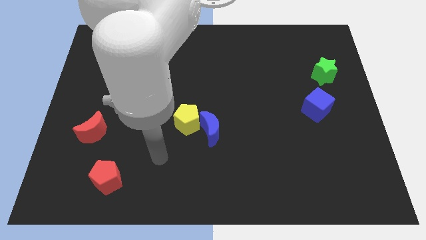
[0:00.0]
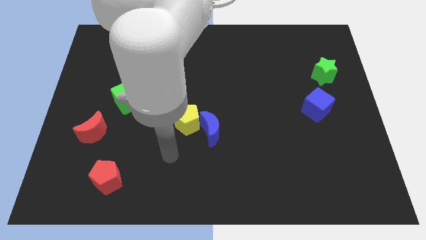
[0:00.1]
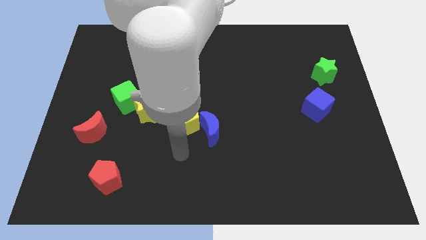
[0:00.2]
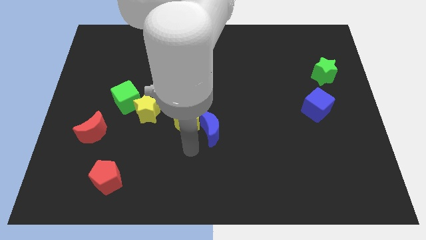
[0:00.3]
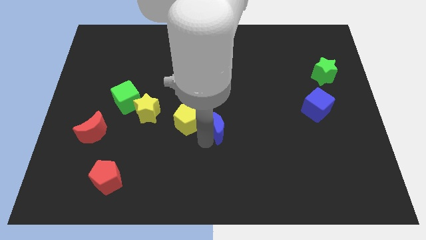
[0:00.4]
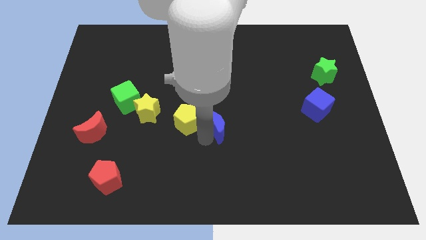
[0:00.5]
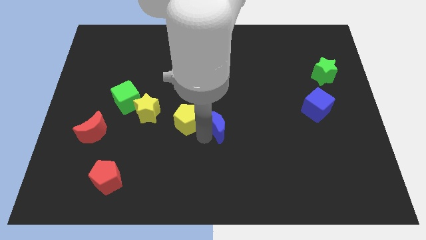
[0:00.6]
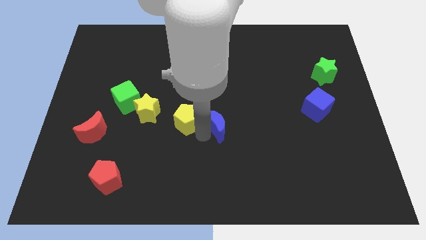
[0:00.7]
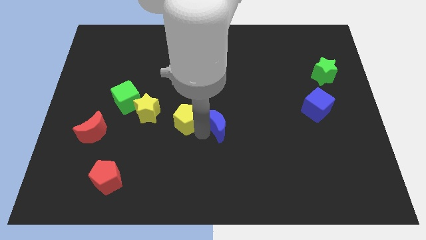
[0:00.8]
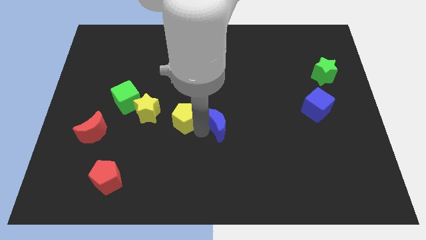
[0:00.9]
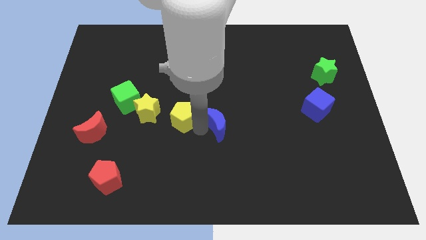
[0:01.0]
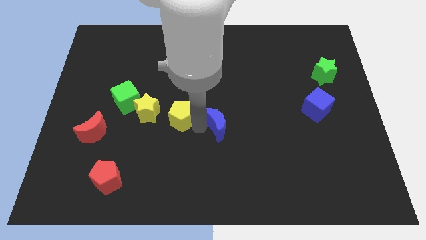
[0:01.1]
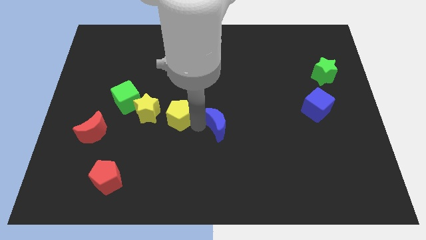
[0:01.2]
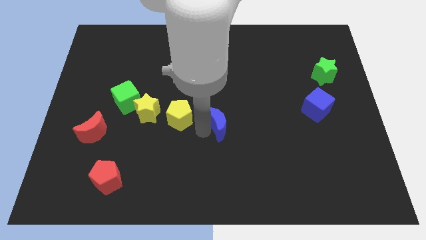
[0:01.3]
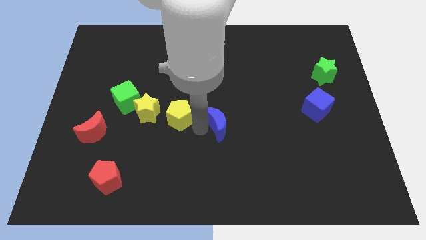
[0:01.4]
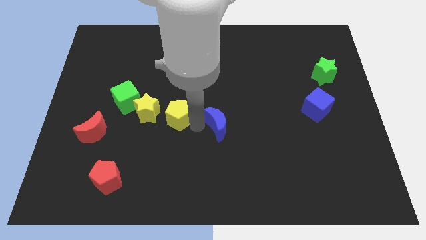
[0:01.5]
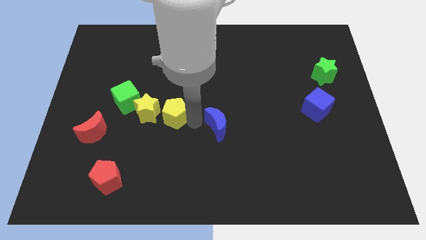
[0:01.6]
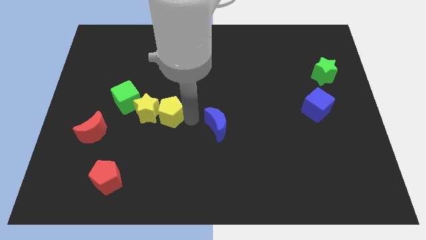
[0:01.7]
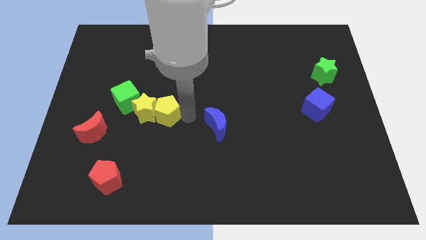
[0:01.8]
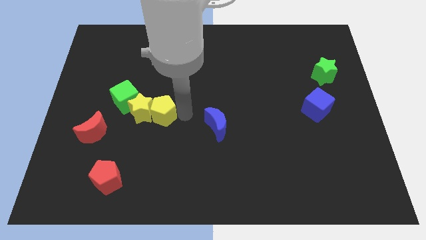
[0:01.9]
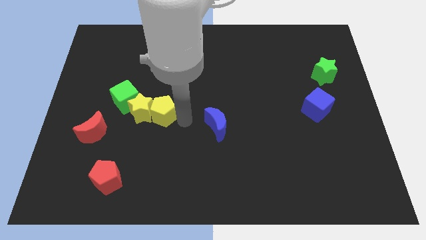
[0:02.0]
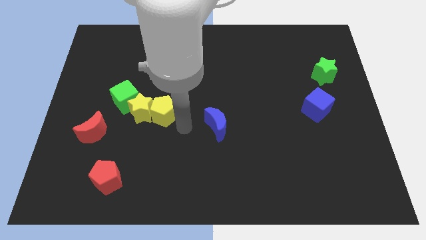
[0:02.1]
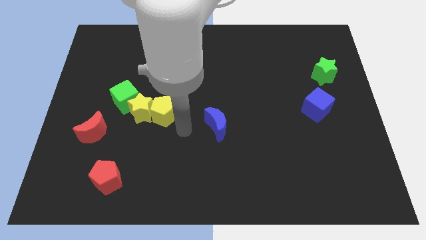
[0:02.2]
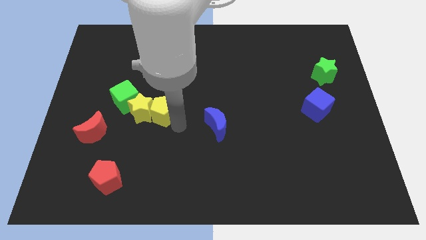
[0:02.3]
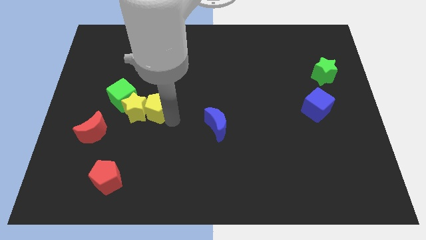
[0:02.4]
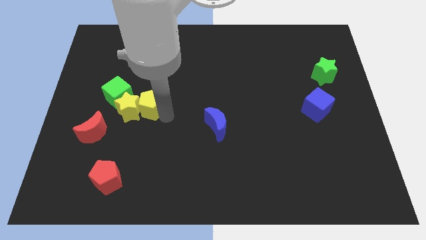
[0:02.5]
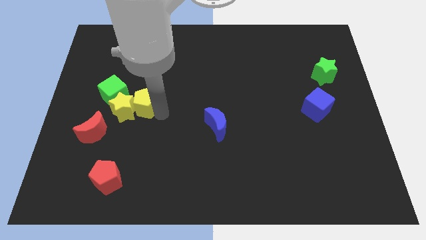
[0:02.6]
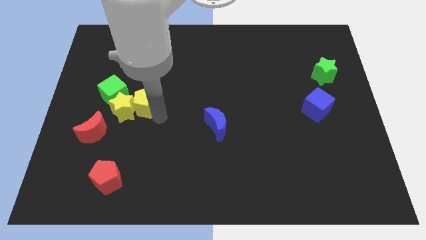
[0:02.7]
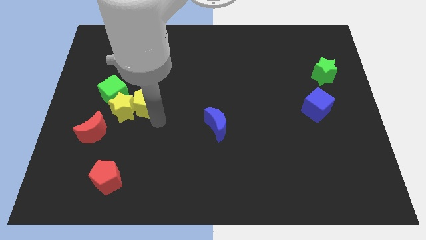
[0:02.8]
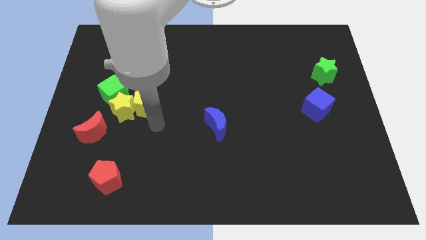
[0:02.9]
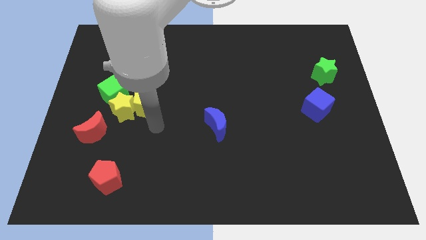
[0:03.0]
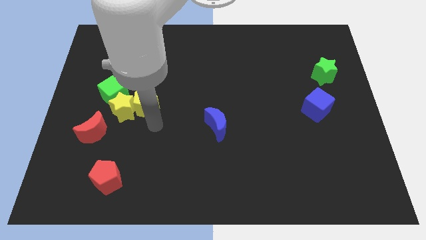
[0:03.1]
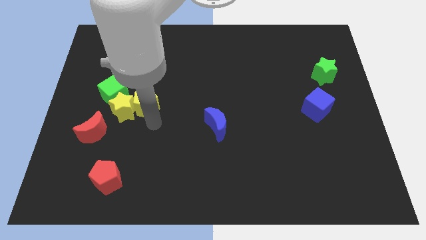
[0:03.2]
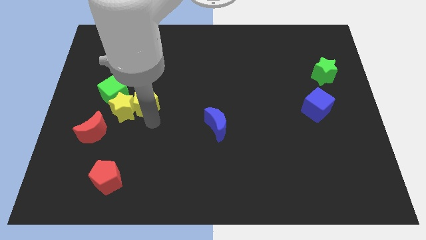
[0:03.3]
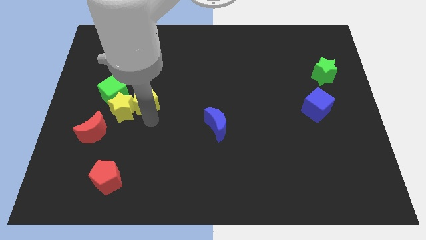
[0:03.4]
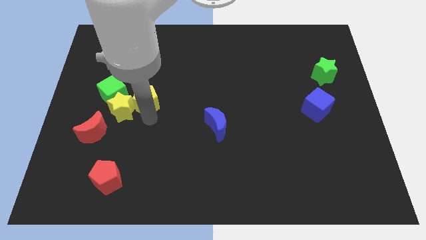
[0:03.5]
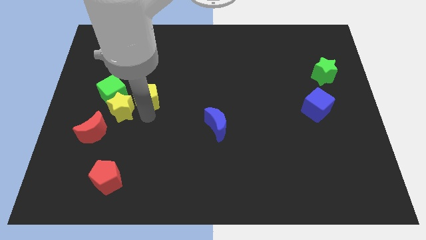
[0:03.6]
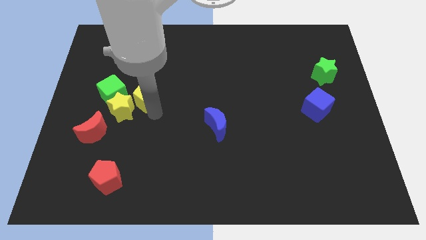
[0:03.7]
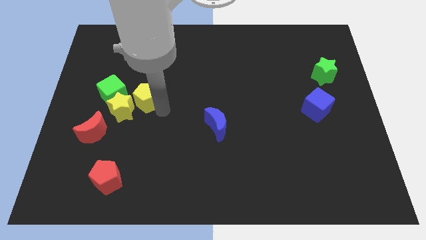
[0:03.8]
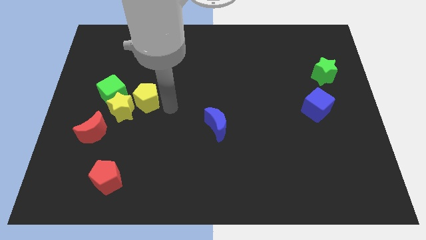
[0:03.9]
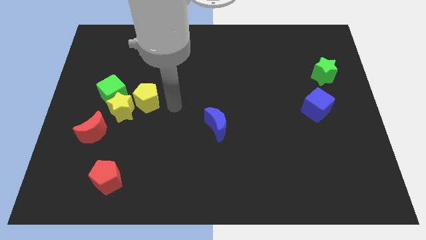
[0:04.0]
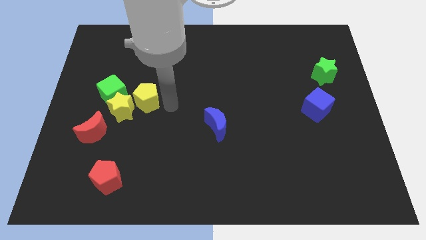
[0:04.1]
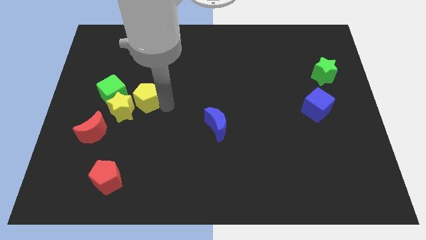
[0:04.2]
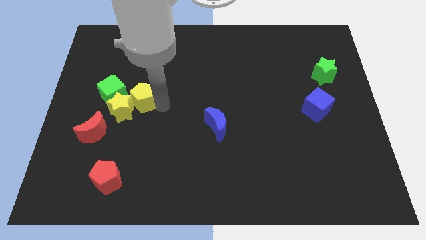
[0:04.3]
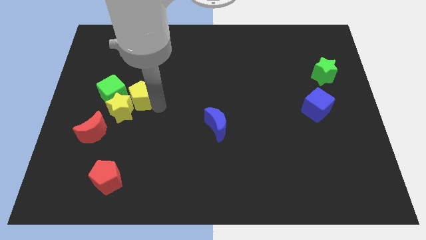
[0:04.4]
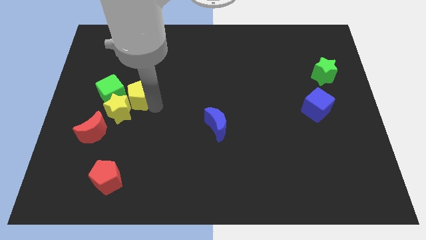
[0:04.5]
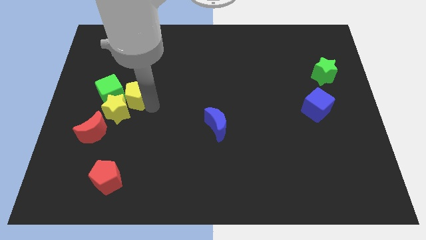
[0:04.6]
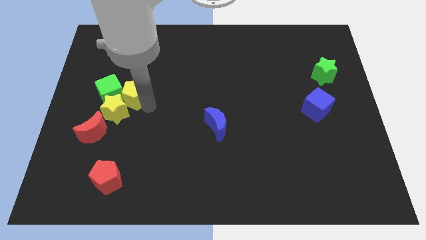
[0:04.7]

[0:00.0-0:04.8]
push the yellow pentagon close to the green cube

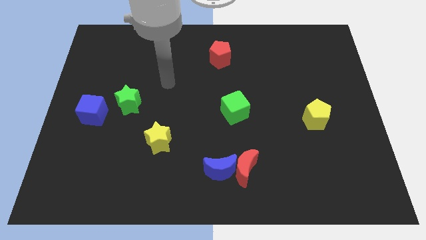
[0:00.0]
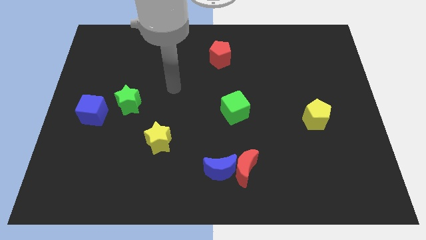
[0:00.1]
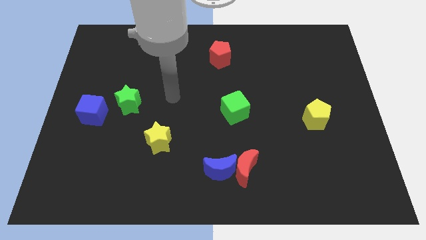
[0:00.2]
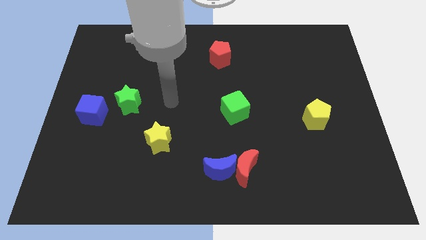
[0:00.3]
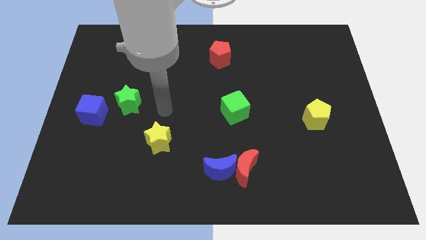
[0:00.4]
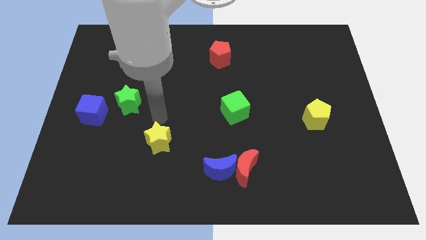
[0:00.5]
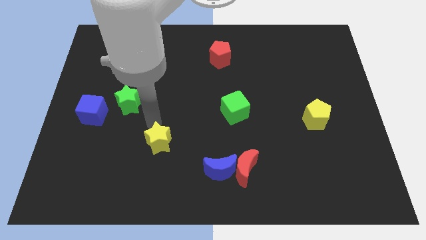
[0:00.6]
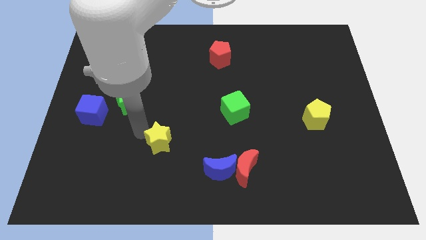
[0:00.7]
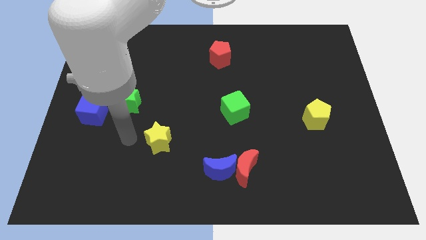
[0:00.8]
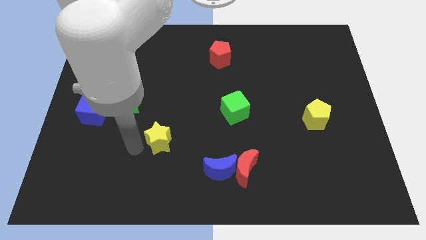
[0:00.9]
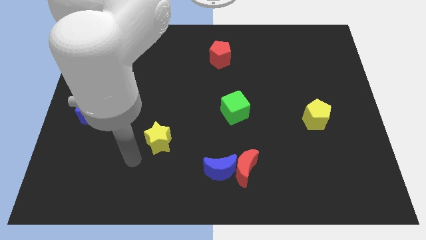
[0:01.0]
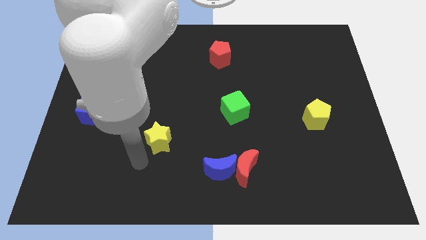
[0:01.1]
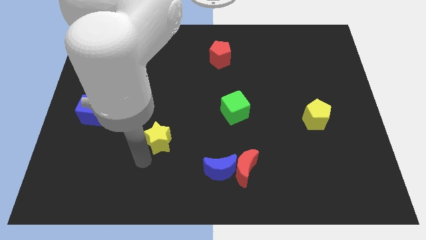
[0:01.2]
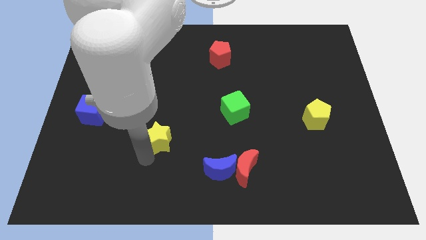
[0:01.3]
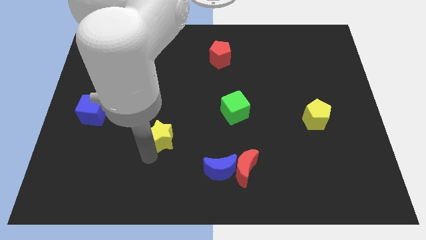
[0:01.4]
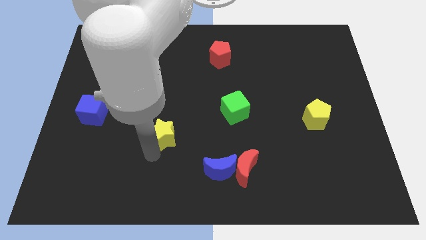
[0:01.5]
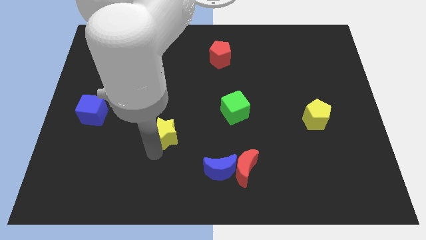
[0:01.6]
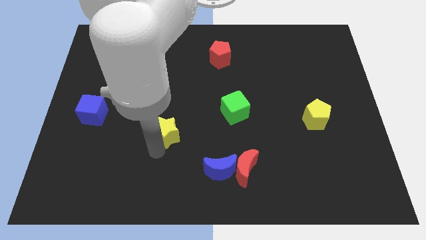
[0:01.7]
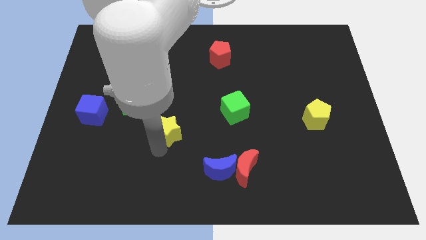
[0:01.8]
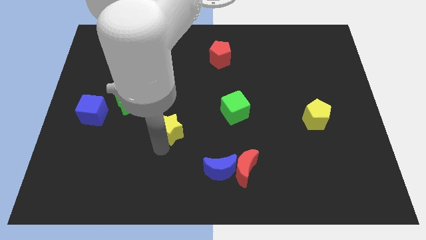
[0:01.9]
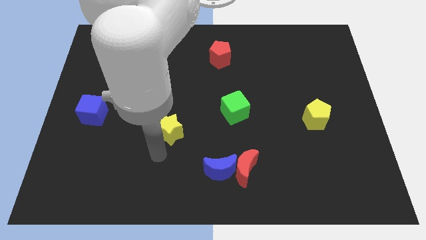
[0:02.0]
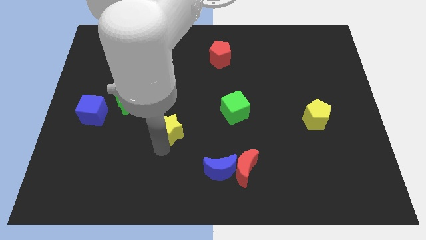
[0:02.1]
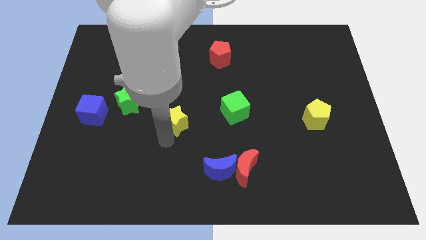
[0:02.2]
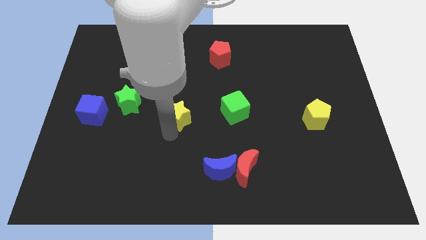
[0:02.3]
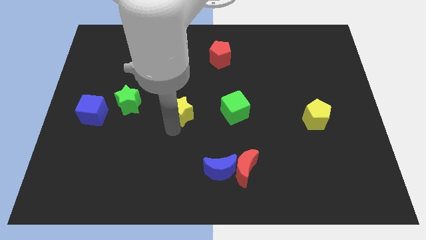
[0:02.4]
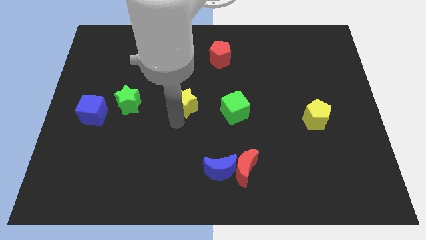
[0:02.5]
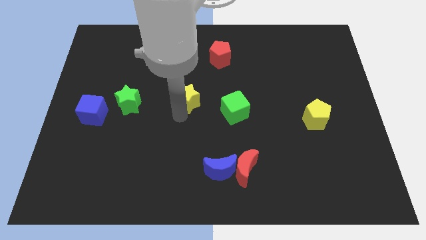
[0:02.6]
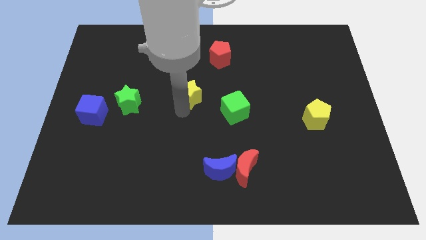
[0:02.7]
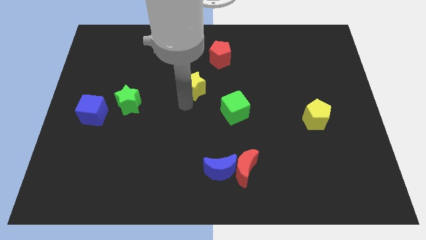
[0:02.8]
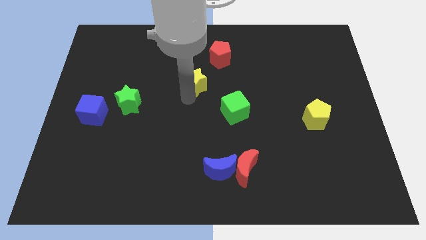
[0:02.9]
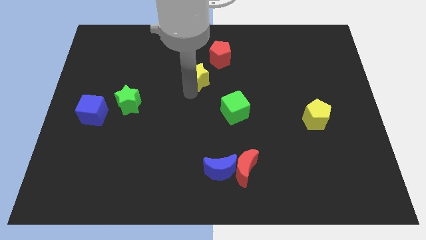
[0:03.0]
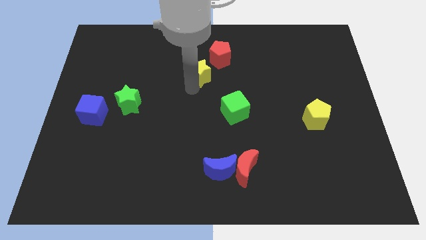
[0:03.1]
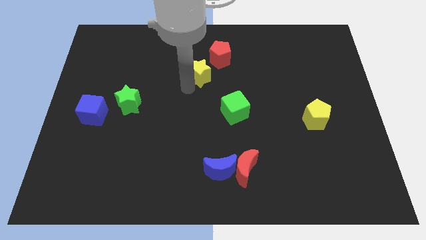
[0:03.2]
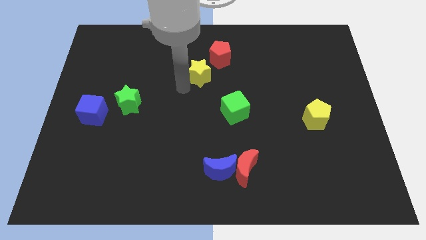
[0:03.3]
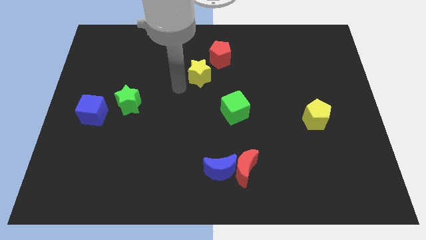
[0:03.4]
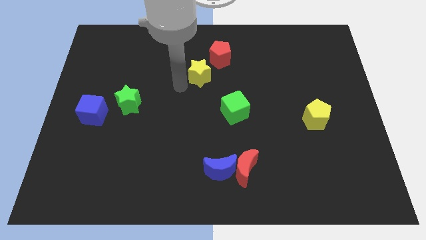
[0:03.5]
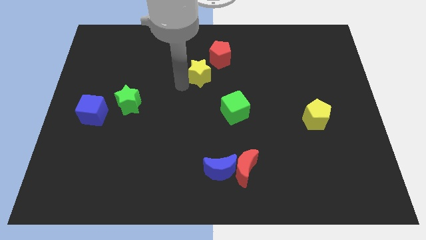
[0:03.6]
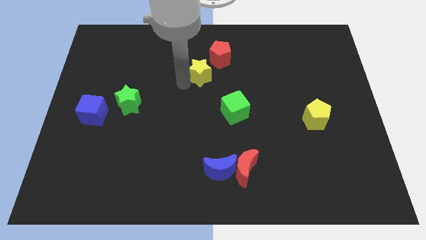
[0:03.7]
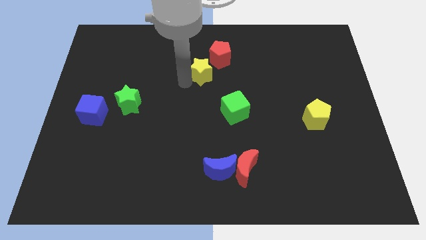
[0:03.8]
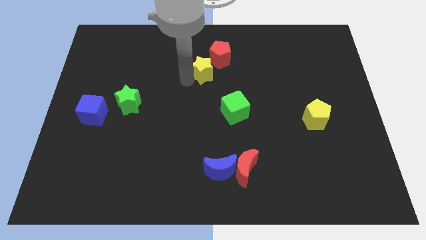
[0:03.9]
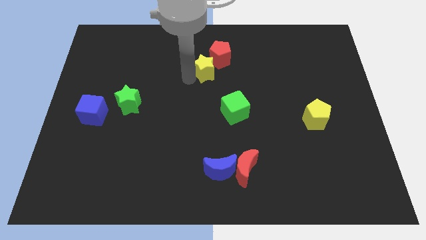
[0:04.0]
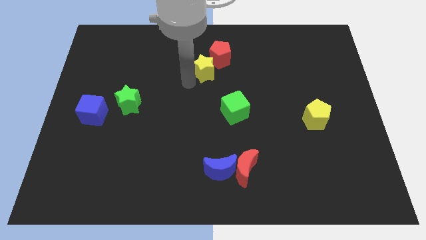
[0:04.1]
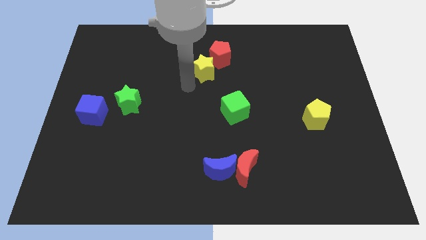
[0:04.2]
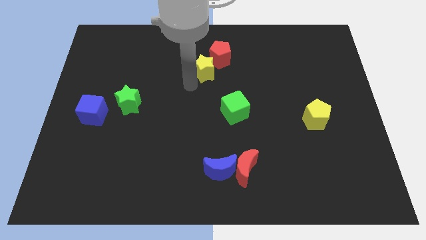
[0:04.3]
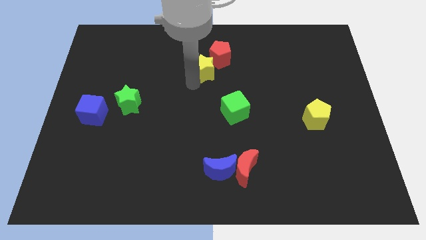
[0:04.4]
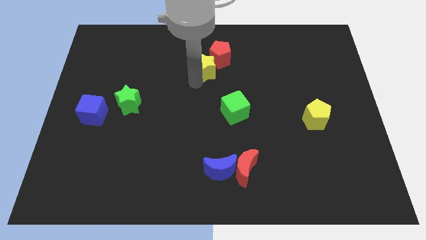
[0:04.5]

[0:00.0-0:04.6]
put the yellow star to the red pentagon
